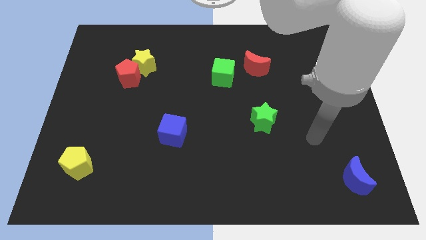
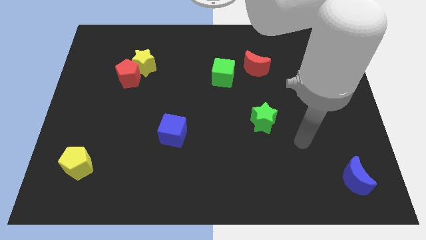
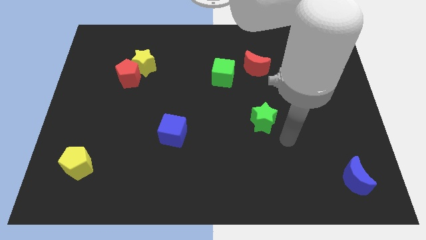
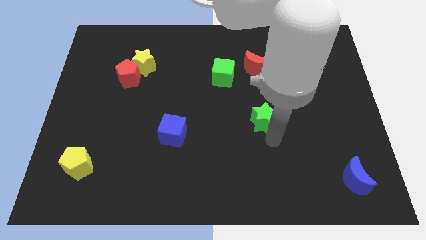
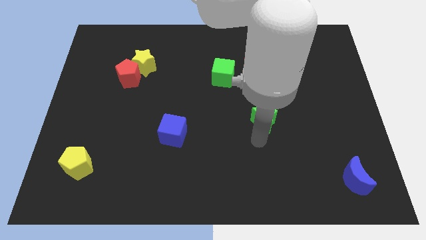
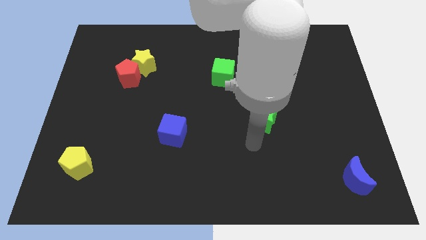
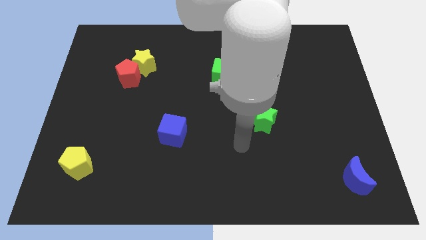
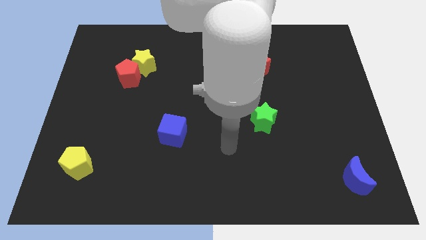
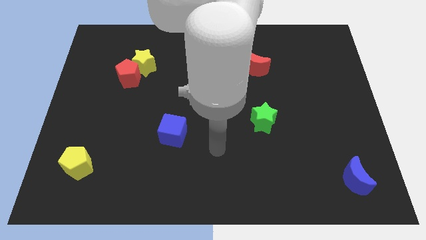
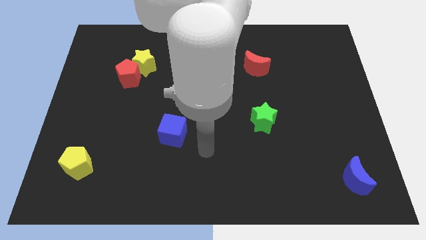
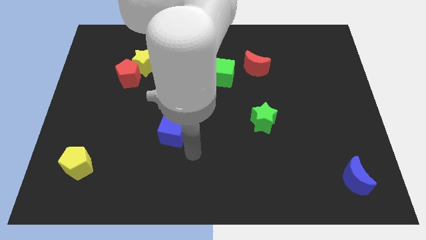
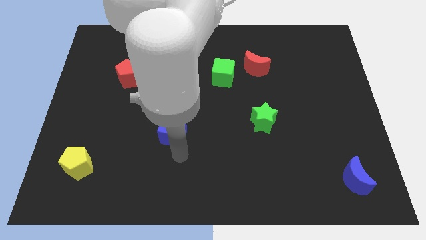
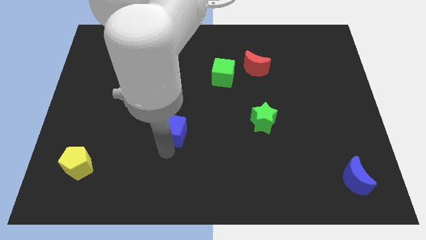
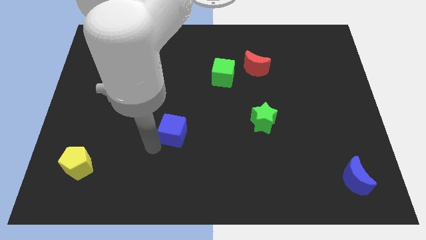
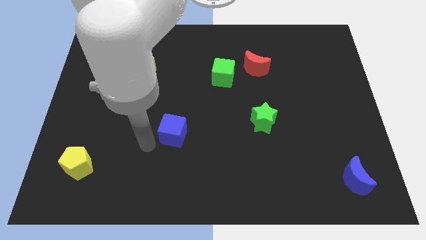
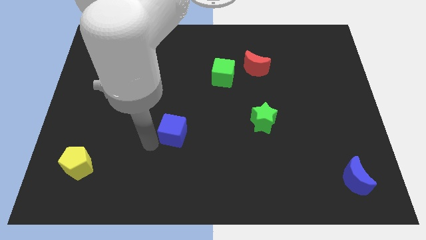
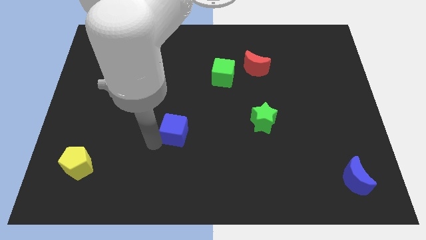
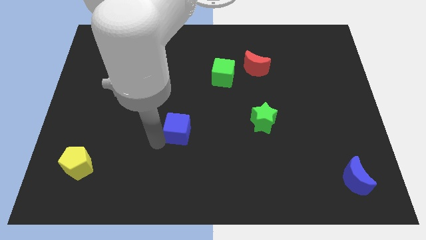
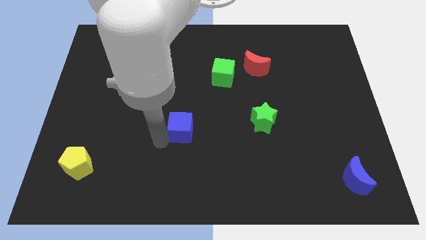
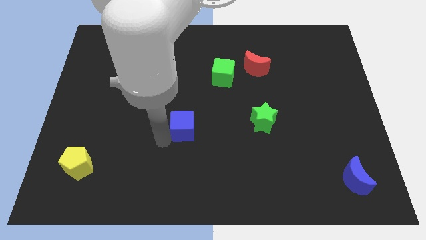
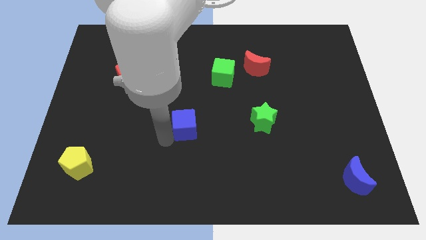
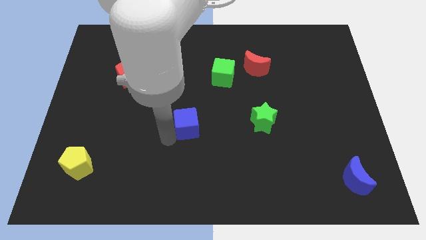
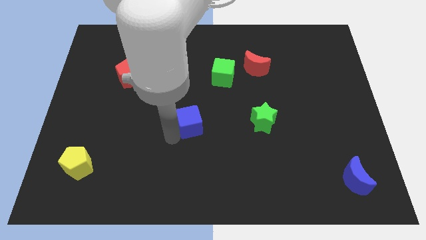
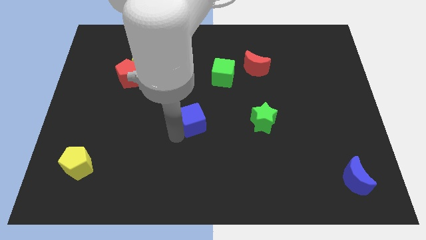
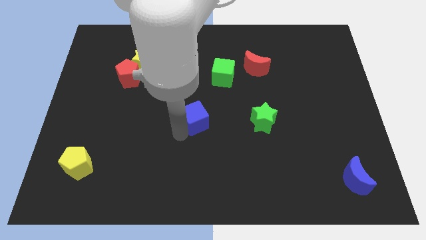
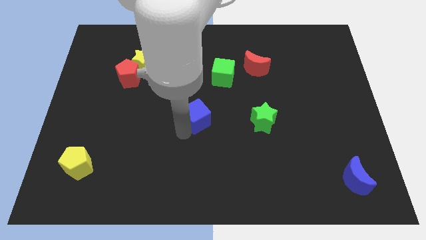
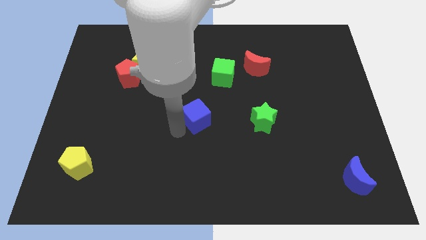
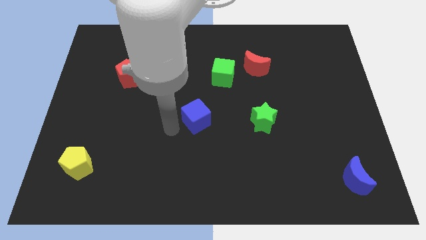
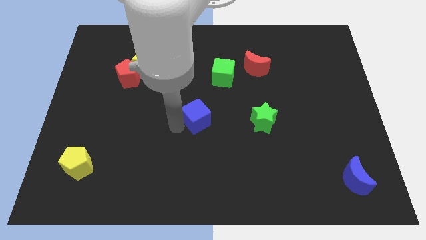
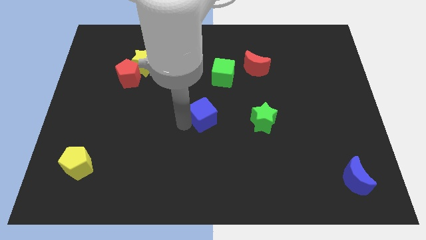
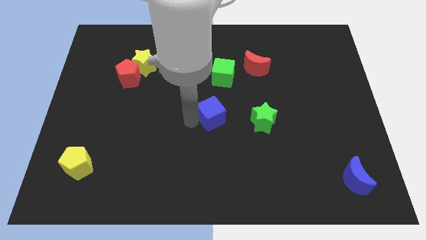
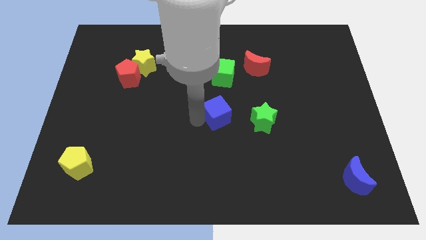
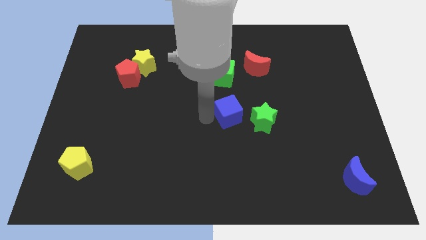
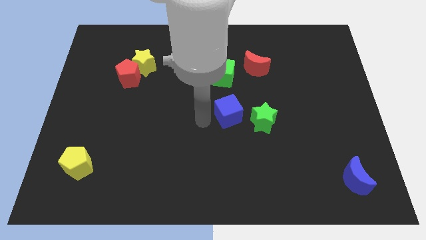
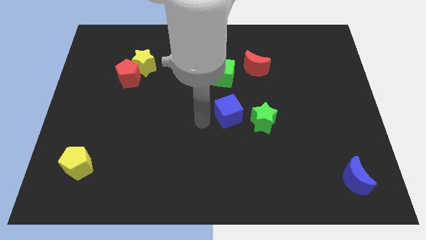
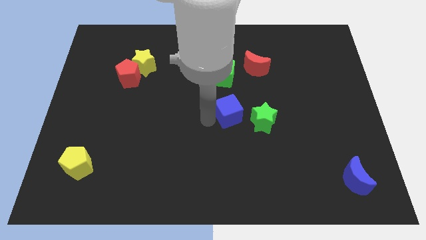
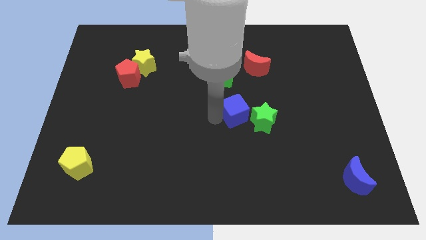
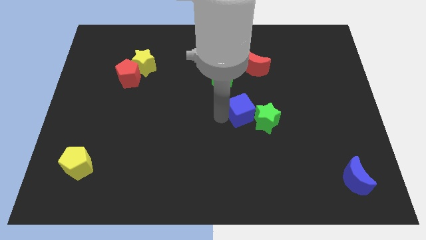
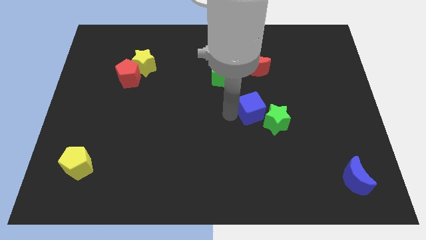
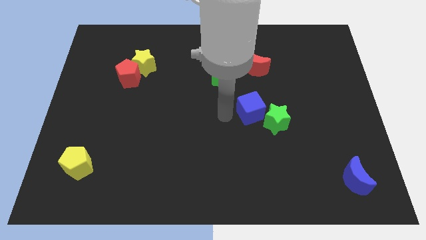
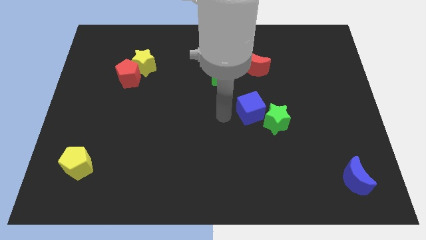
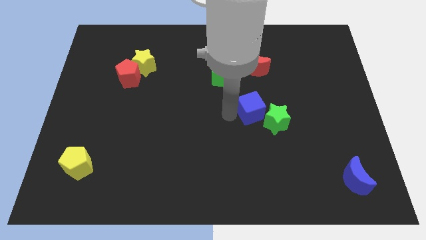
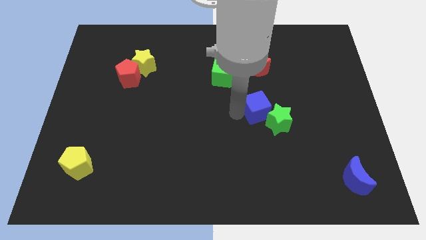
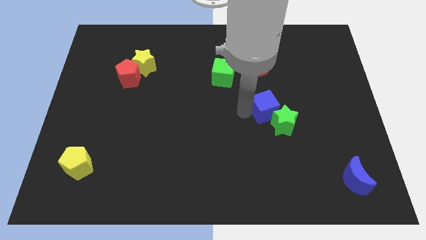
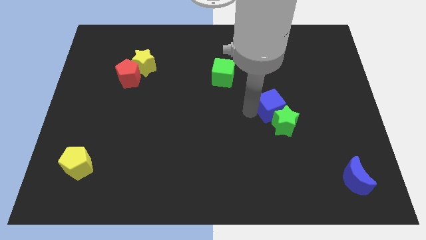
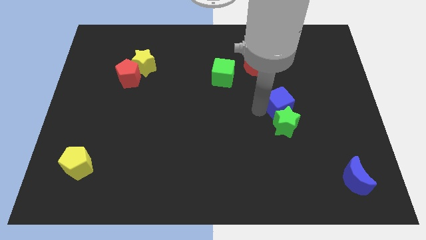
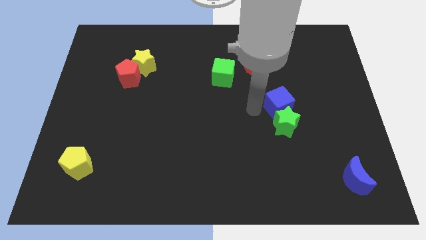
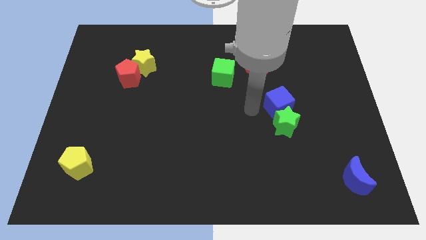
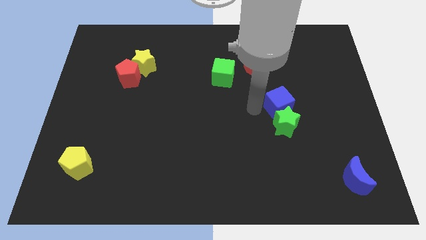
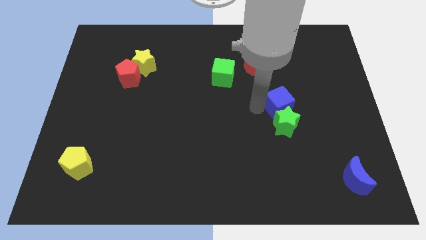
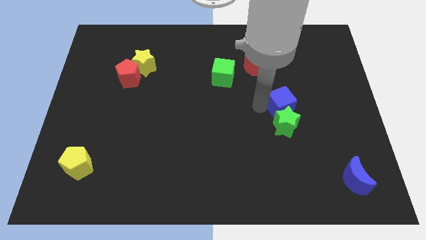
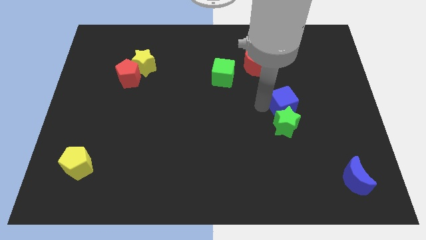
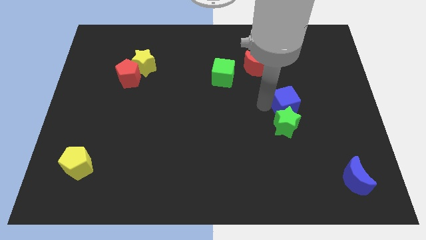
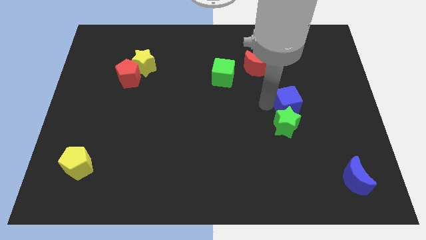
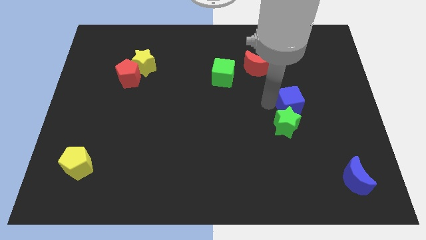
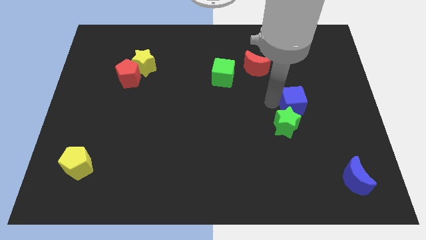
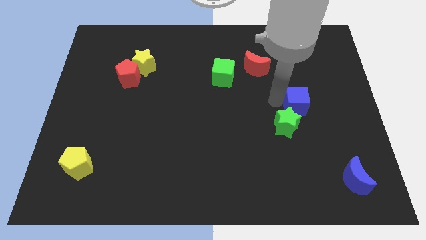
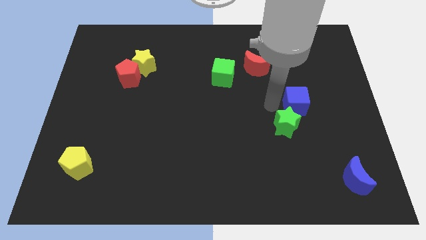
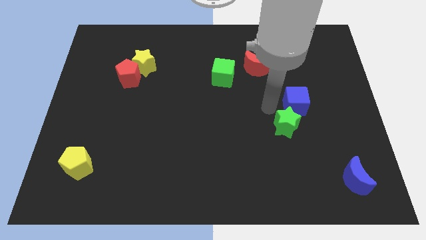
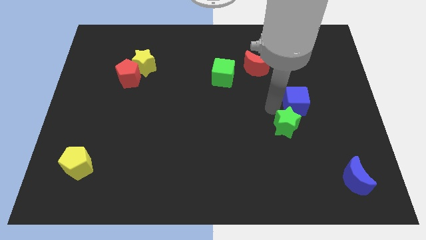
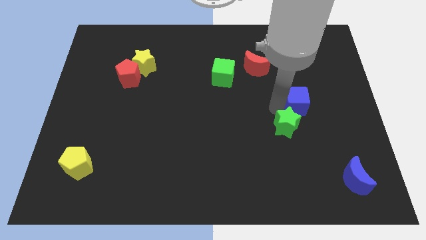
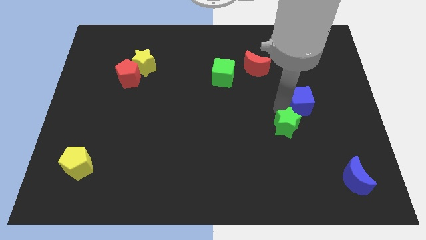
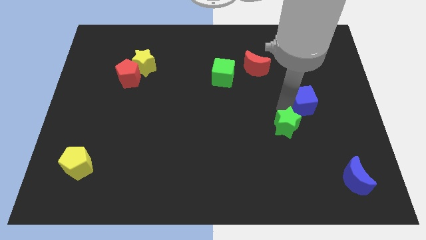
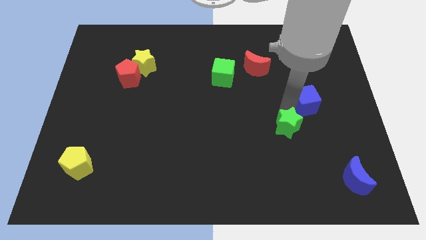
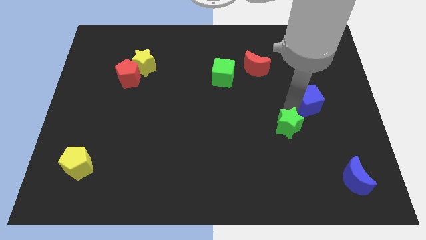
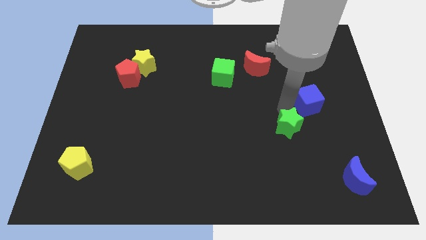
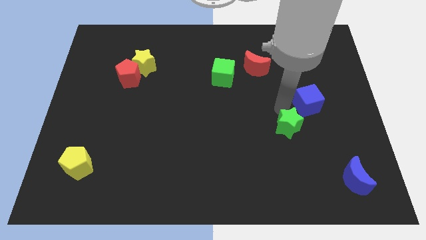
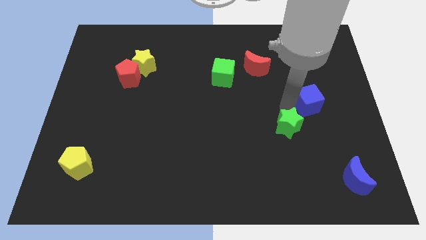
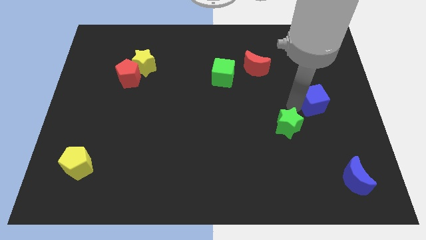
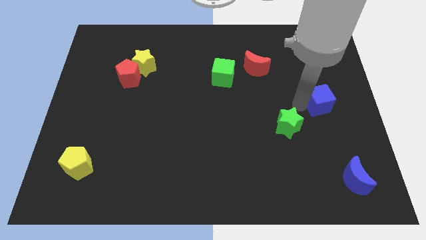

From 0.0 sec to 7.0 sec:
put the blue cube to the right side
